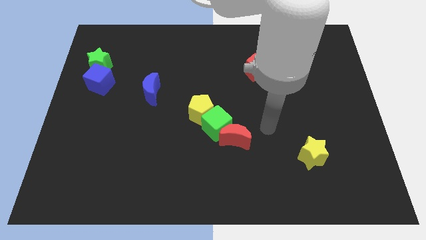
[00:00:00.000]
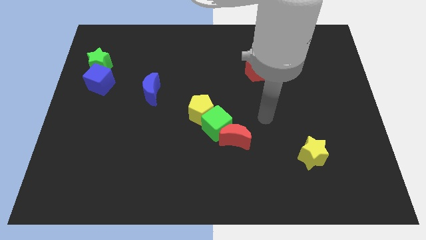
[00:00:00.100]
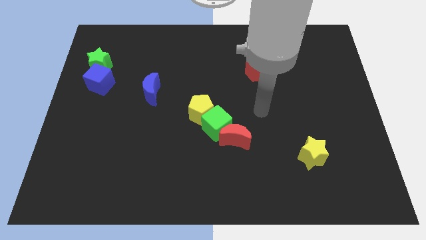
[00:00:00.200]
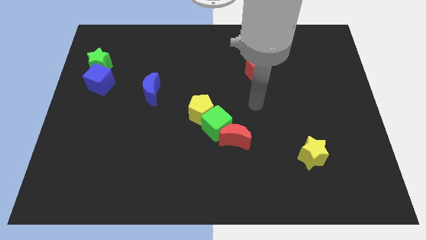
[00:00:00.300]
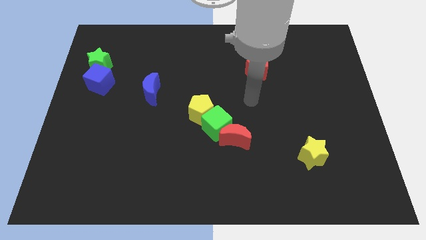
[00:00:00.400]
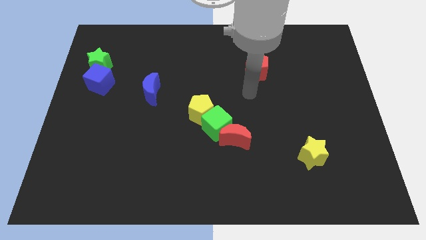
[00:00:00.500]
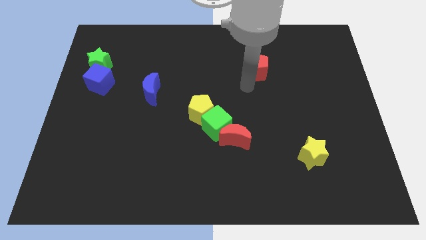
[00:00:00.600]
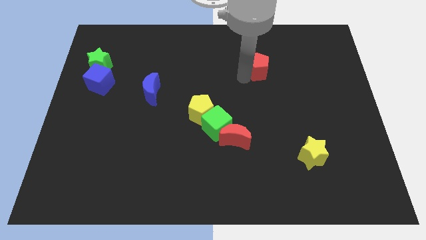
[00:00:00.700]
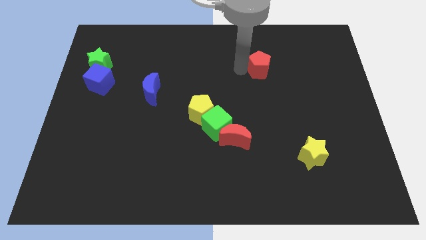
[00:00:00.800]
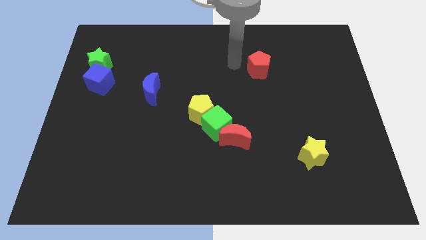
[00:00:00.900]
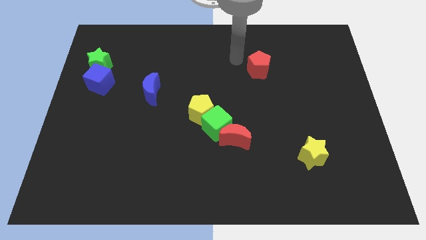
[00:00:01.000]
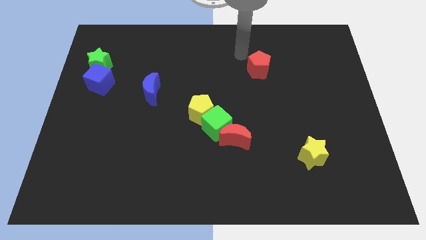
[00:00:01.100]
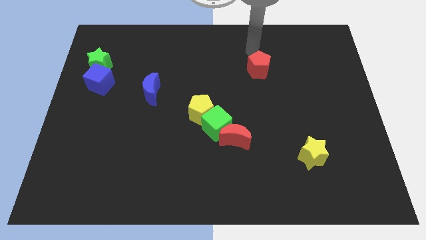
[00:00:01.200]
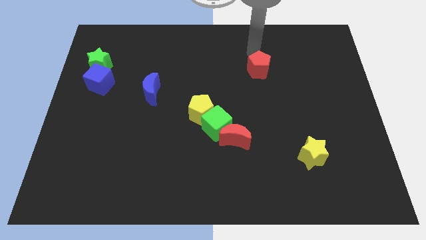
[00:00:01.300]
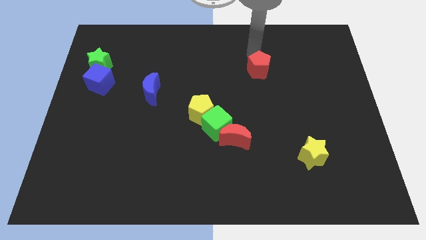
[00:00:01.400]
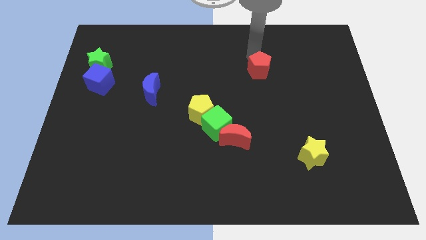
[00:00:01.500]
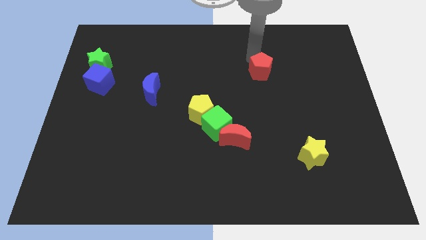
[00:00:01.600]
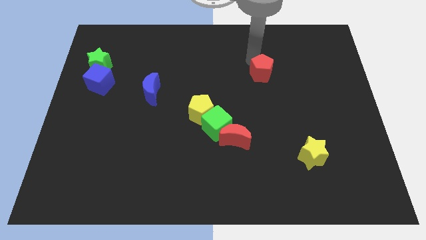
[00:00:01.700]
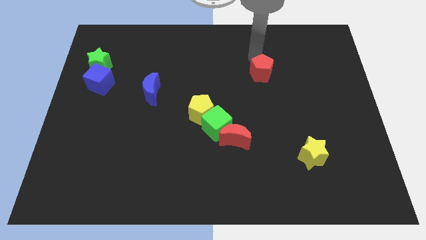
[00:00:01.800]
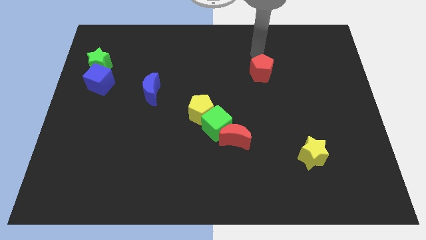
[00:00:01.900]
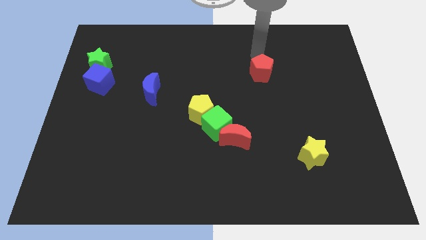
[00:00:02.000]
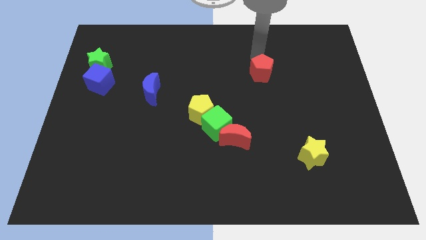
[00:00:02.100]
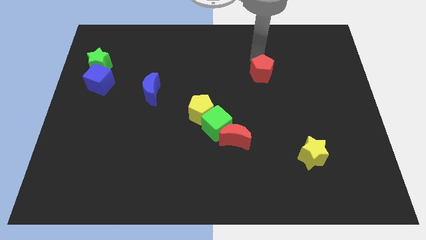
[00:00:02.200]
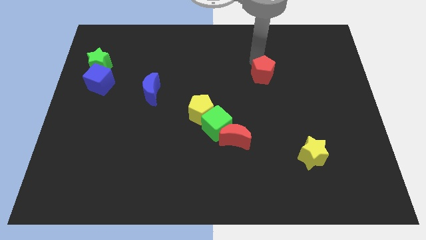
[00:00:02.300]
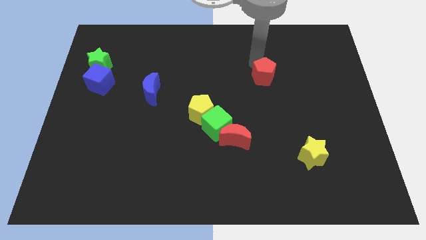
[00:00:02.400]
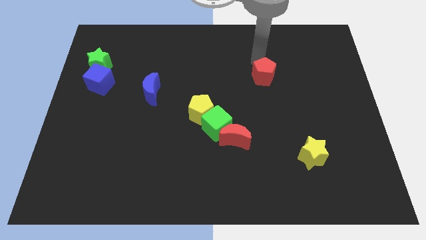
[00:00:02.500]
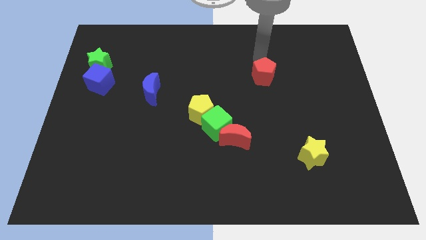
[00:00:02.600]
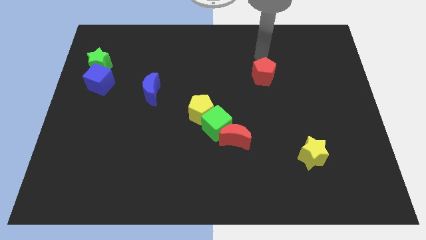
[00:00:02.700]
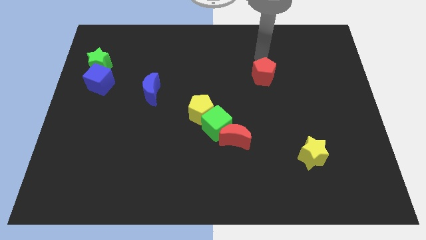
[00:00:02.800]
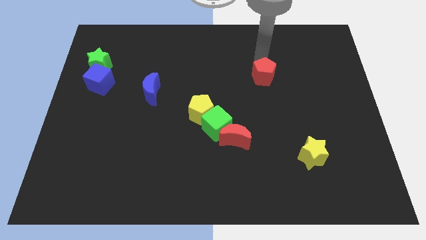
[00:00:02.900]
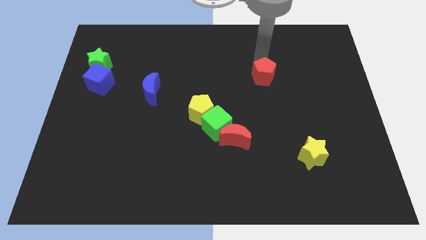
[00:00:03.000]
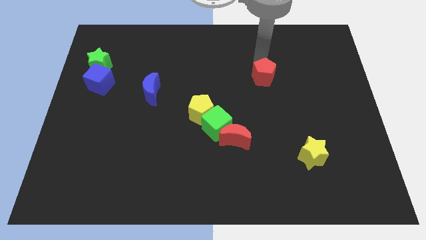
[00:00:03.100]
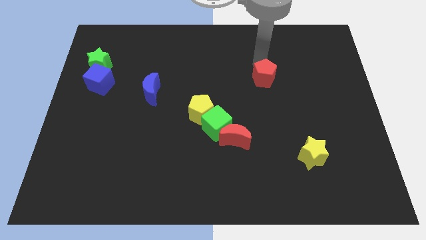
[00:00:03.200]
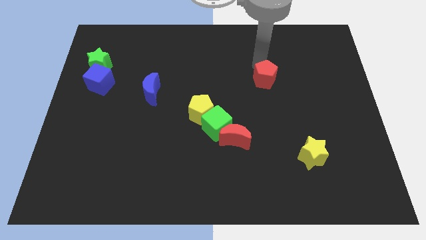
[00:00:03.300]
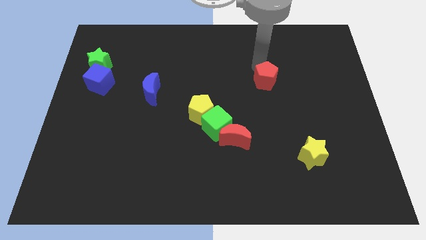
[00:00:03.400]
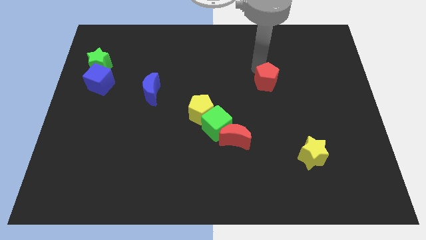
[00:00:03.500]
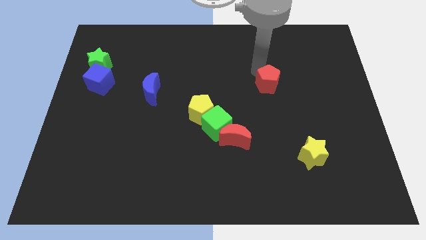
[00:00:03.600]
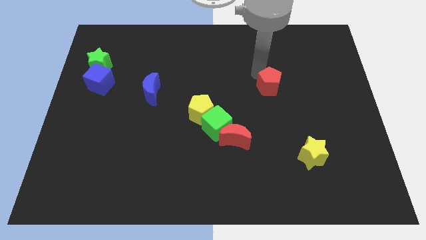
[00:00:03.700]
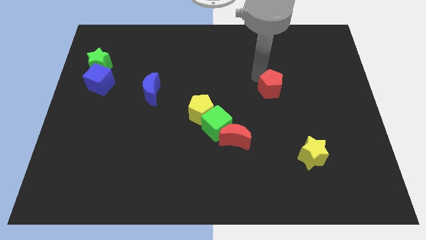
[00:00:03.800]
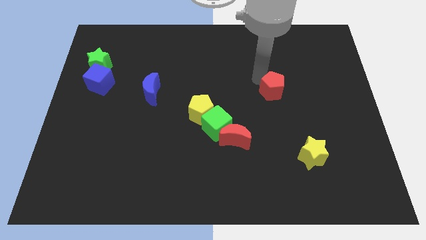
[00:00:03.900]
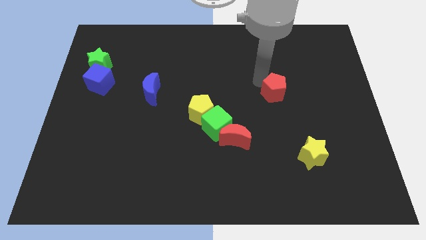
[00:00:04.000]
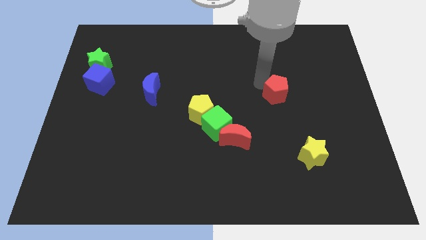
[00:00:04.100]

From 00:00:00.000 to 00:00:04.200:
move the red pentagon a little down

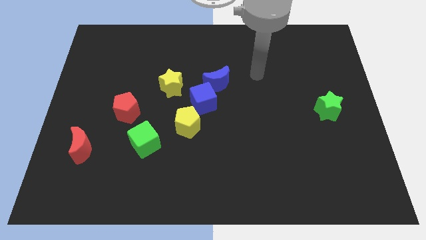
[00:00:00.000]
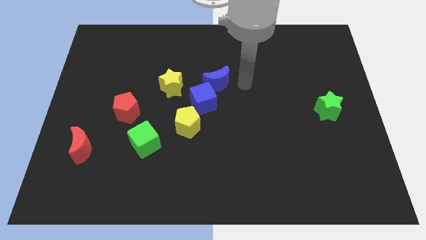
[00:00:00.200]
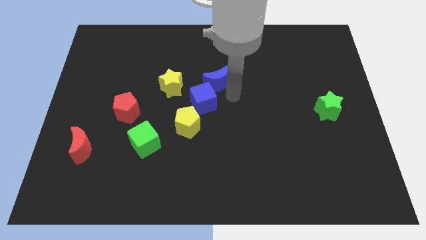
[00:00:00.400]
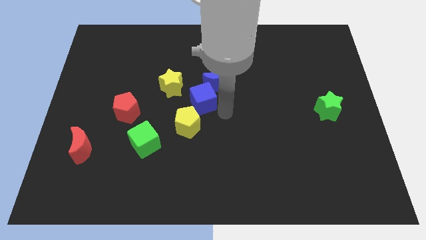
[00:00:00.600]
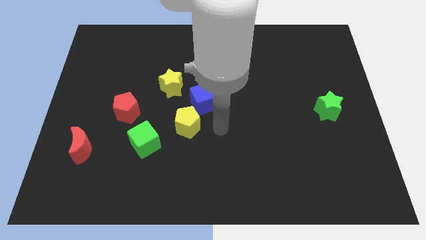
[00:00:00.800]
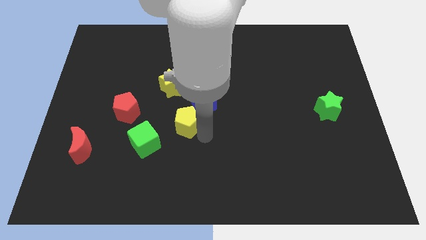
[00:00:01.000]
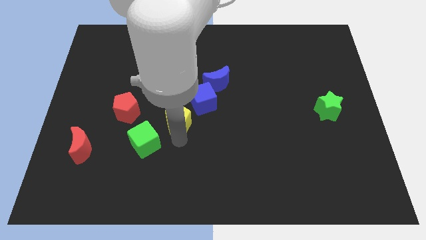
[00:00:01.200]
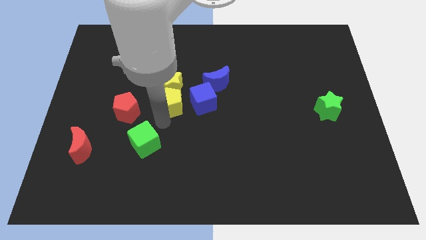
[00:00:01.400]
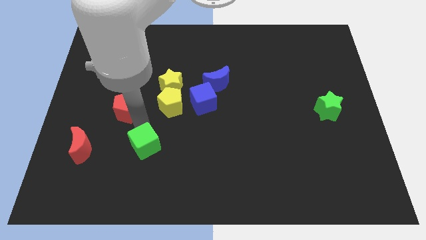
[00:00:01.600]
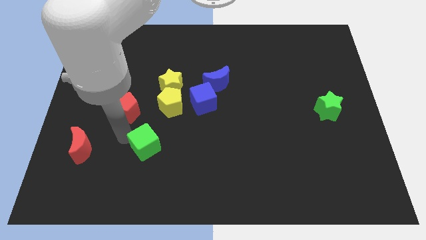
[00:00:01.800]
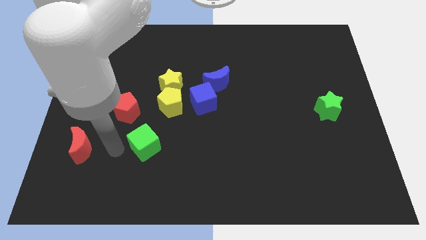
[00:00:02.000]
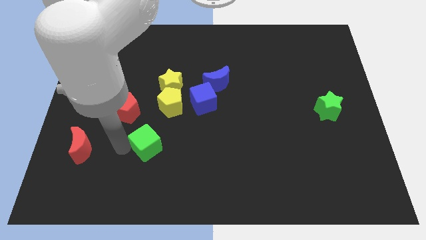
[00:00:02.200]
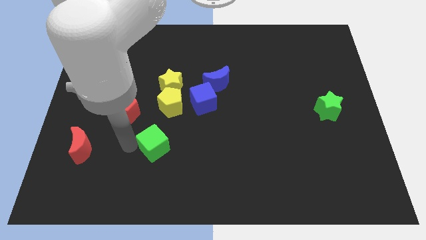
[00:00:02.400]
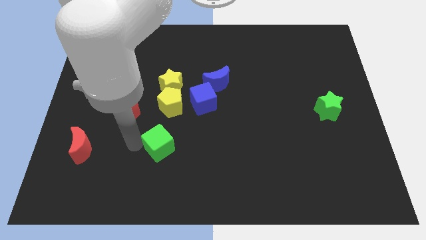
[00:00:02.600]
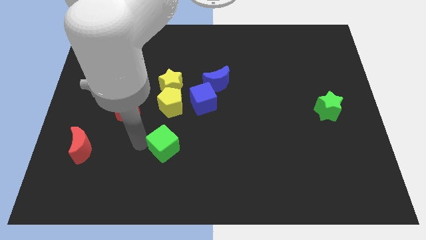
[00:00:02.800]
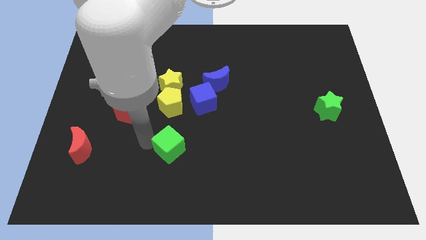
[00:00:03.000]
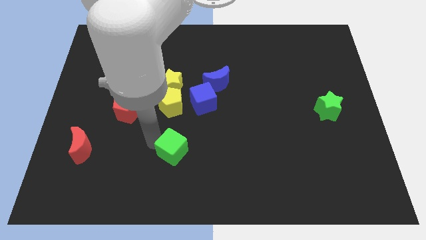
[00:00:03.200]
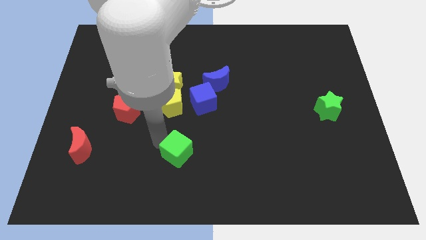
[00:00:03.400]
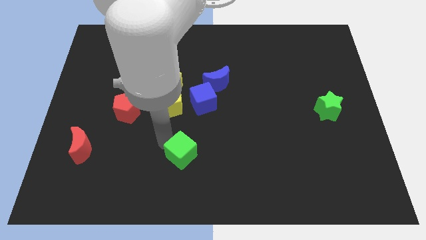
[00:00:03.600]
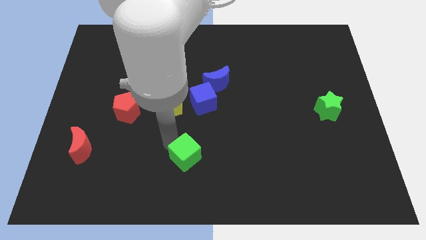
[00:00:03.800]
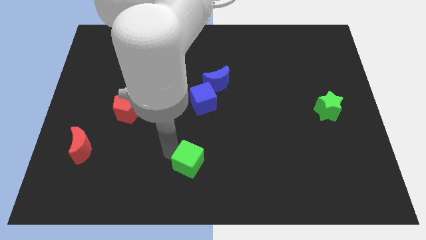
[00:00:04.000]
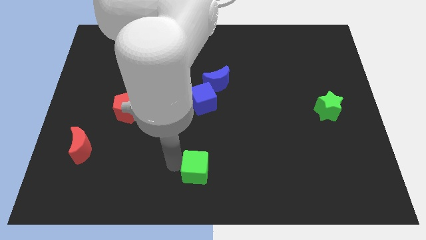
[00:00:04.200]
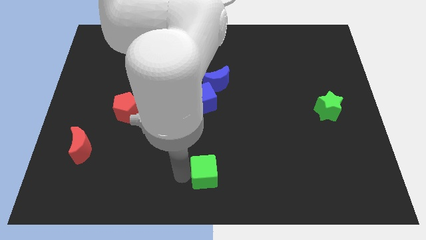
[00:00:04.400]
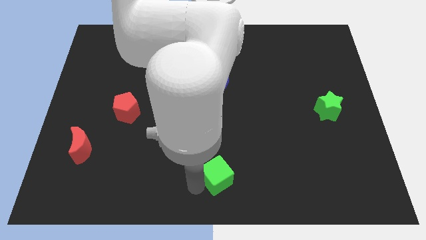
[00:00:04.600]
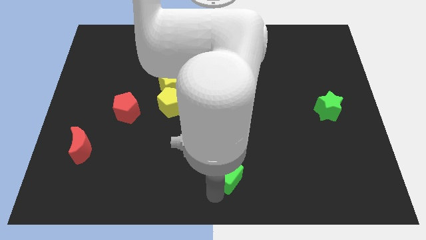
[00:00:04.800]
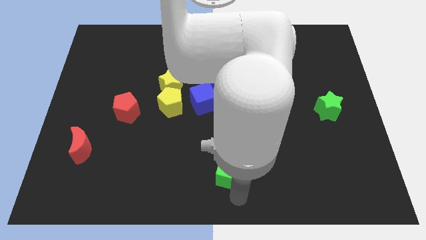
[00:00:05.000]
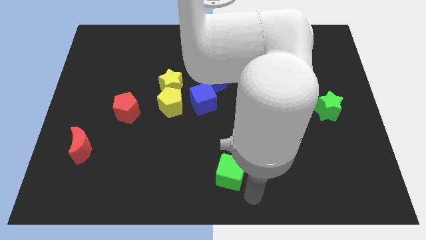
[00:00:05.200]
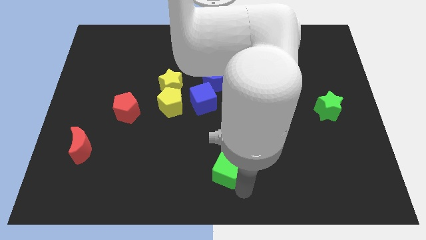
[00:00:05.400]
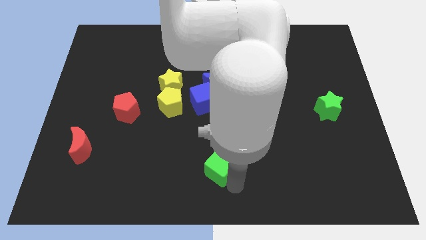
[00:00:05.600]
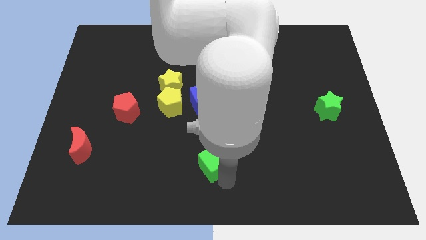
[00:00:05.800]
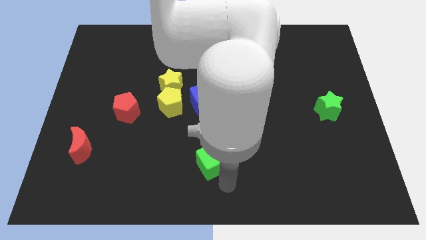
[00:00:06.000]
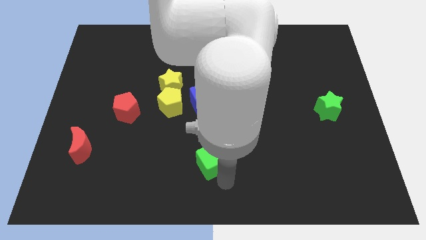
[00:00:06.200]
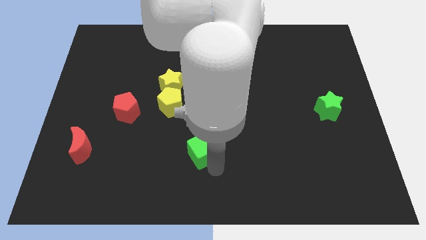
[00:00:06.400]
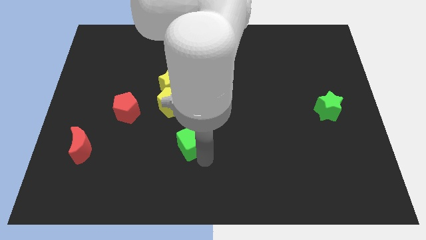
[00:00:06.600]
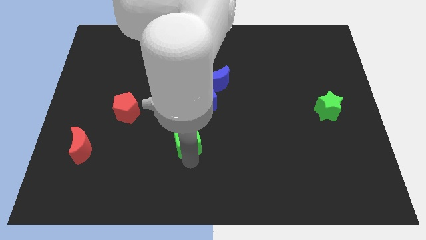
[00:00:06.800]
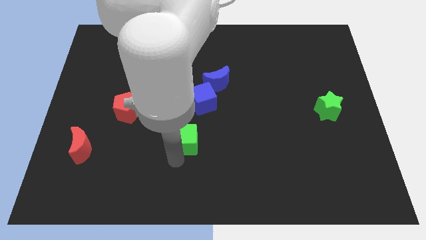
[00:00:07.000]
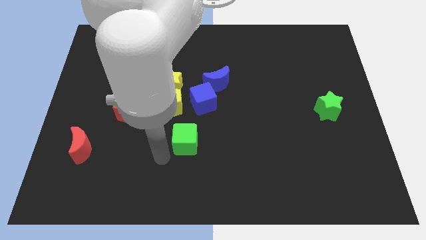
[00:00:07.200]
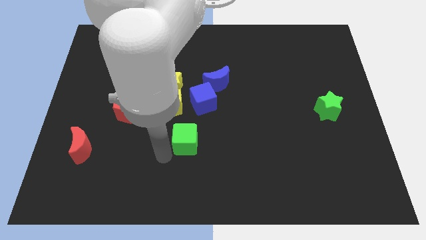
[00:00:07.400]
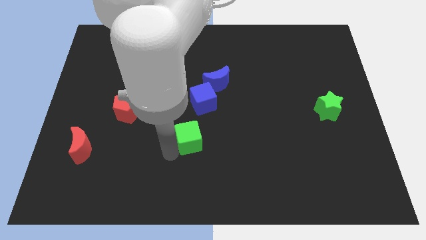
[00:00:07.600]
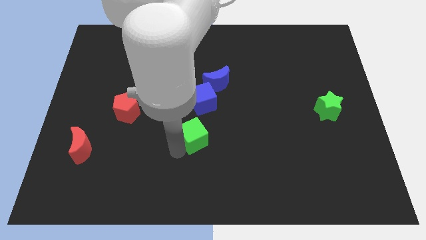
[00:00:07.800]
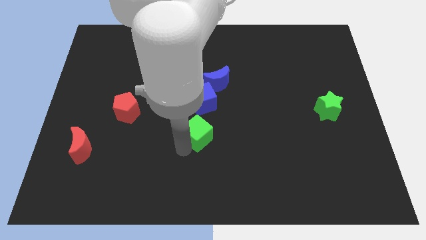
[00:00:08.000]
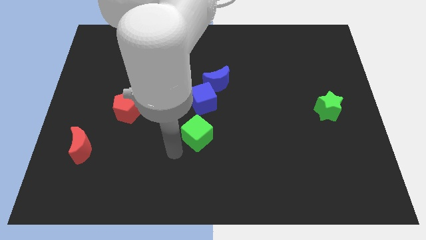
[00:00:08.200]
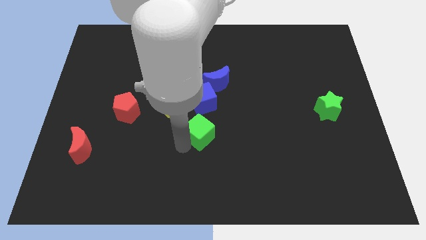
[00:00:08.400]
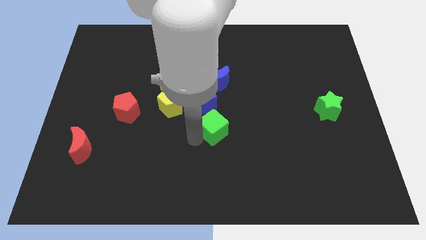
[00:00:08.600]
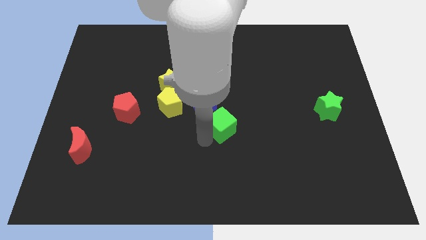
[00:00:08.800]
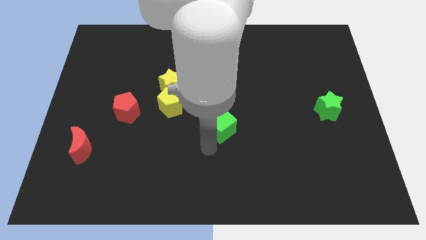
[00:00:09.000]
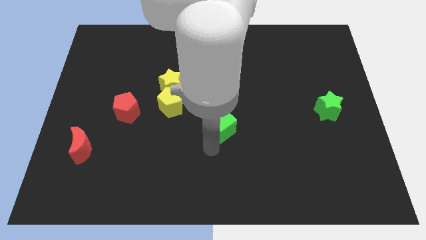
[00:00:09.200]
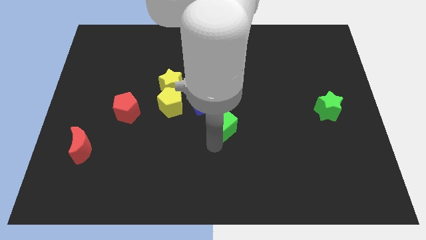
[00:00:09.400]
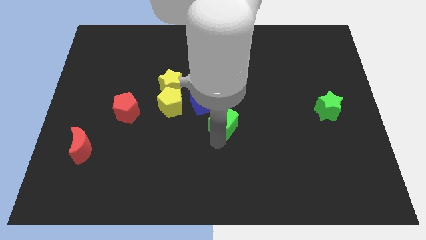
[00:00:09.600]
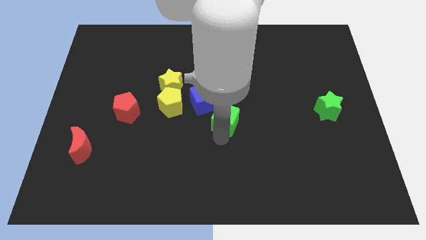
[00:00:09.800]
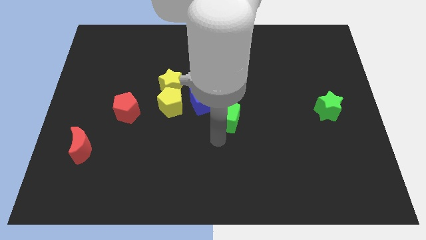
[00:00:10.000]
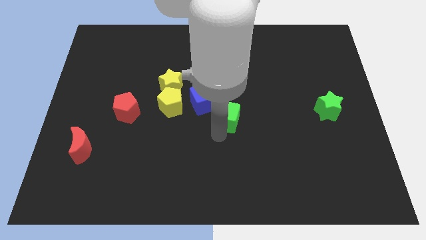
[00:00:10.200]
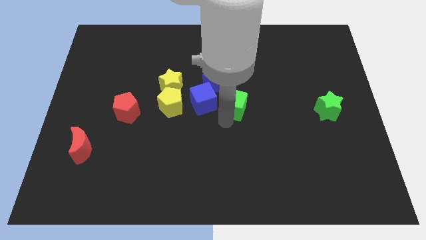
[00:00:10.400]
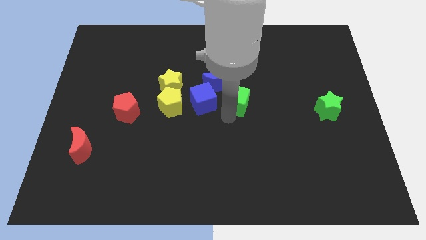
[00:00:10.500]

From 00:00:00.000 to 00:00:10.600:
move the green cube upwards and then right
